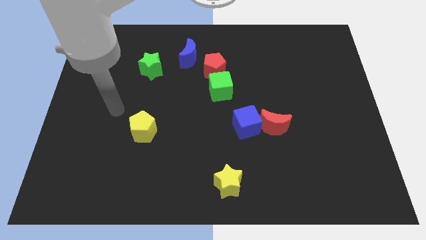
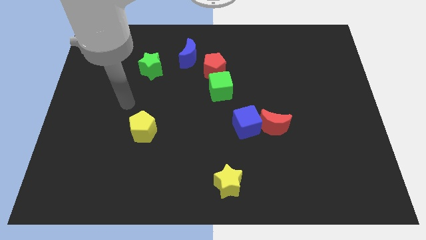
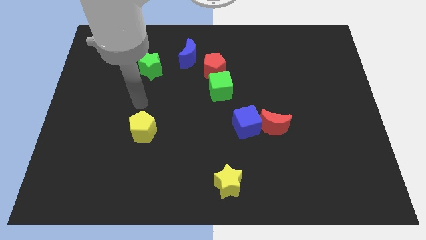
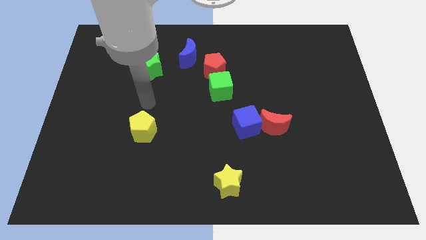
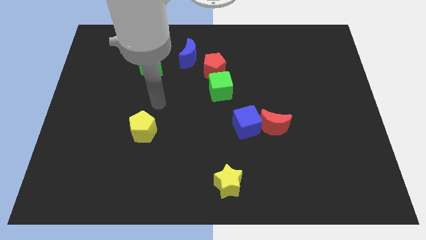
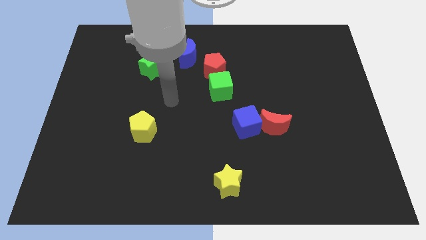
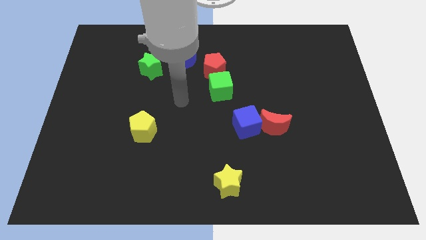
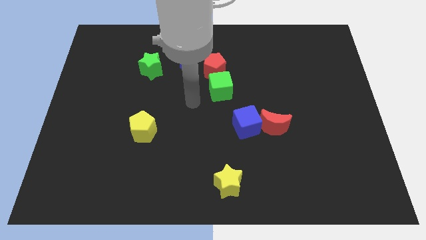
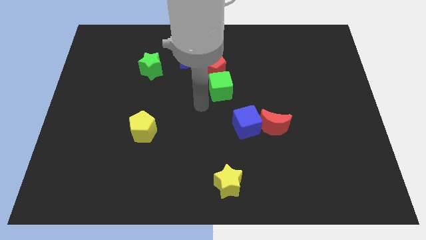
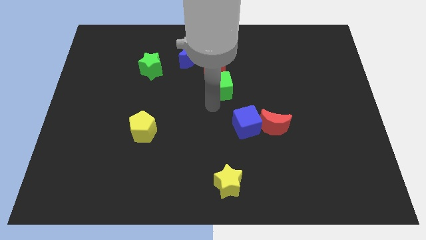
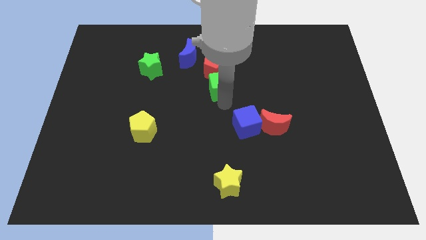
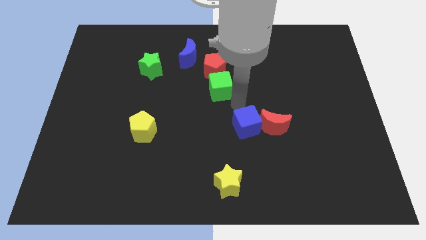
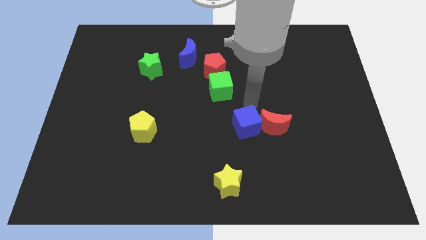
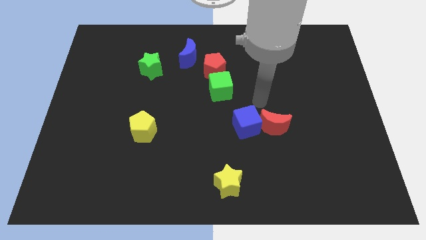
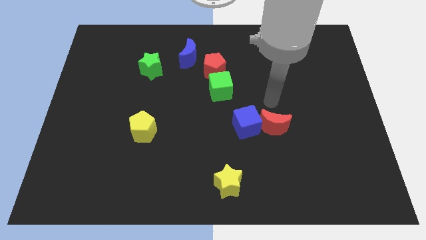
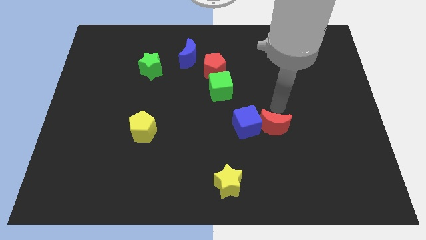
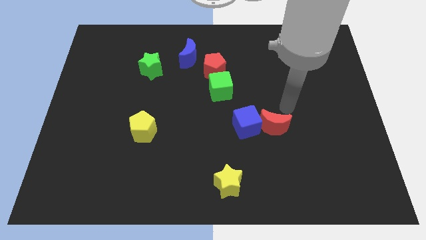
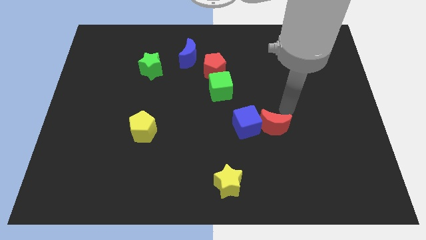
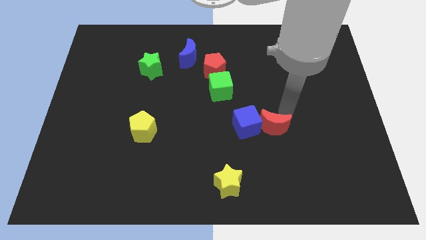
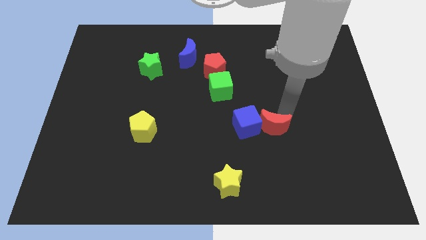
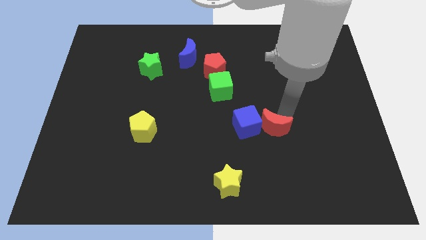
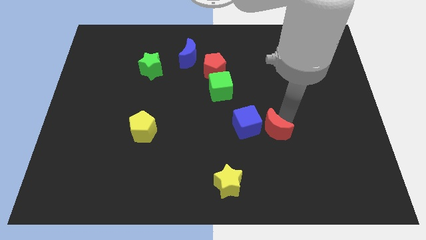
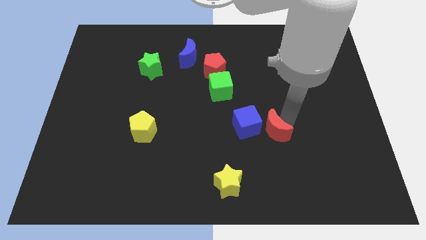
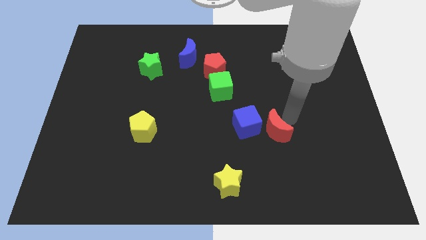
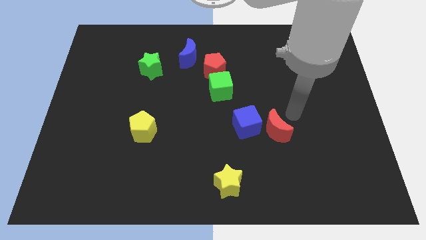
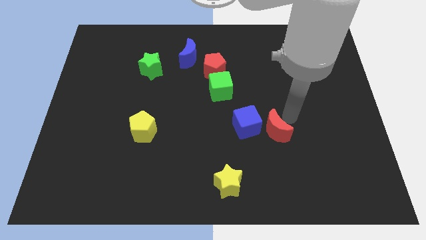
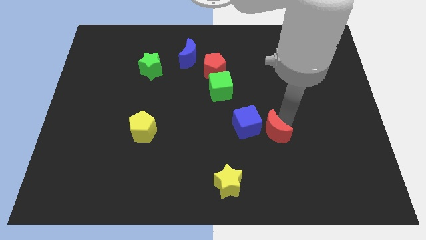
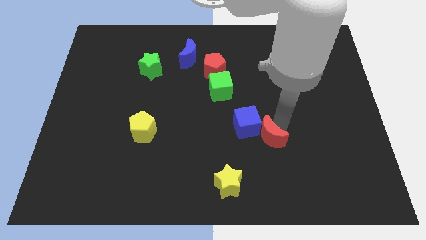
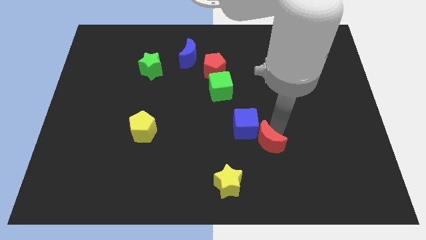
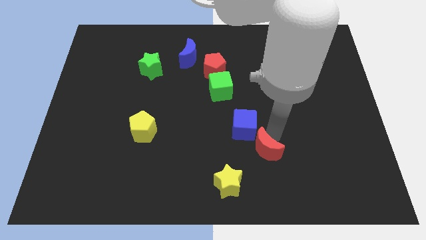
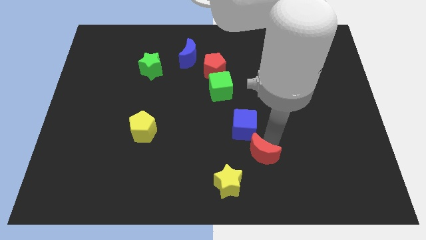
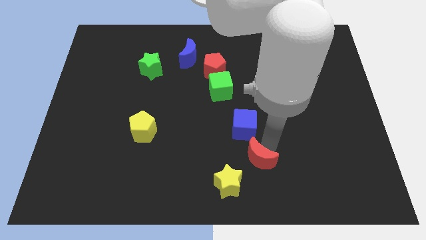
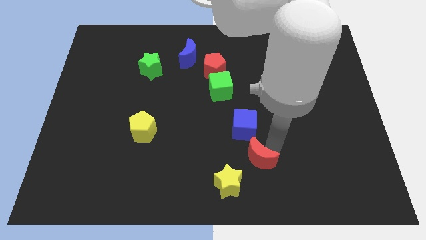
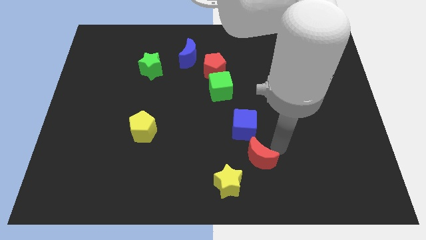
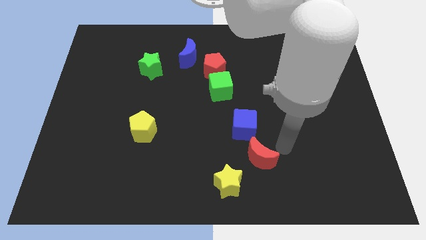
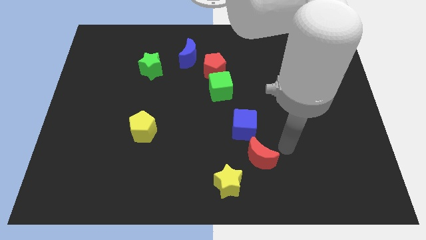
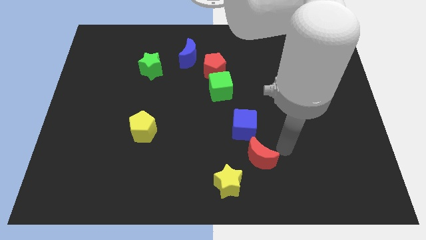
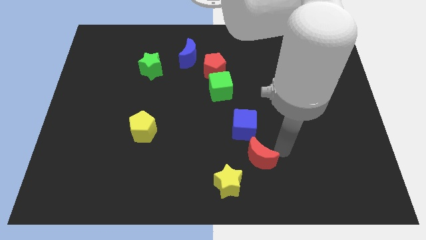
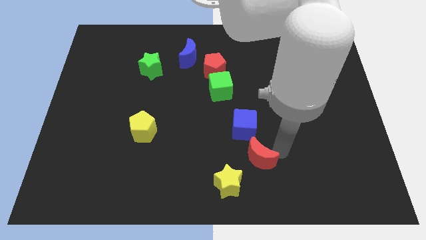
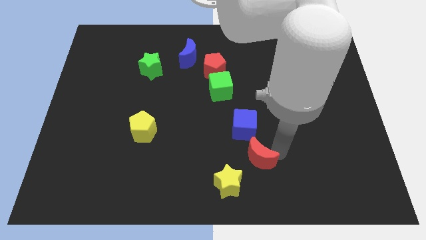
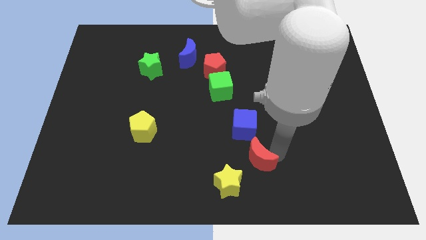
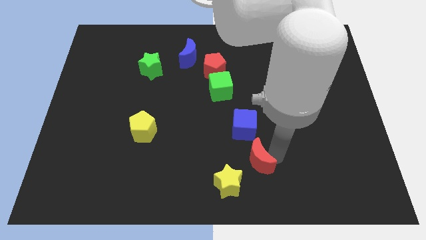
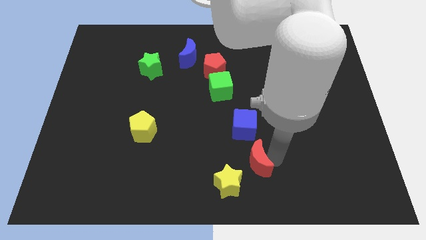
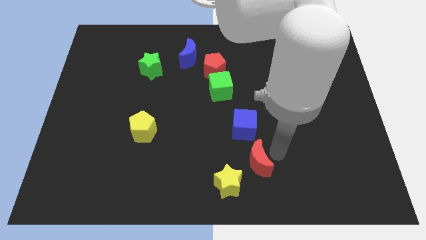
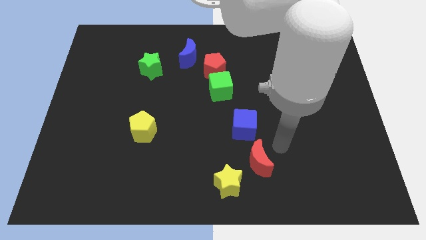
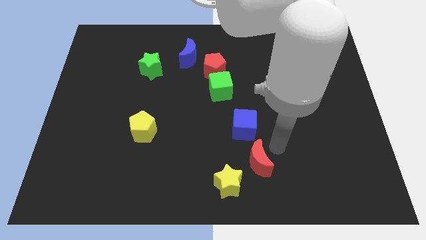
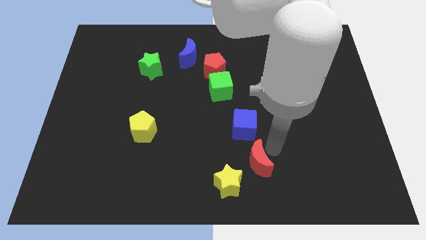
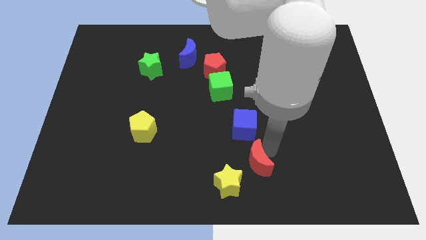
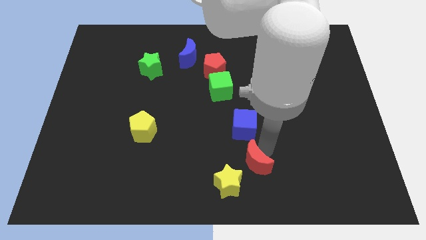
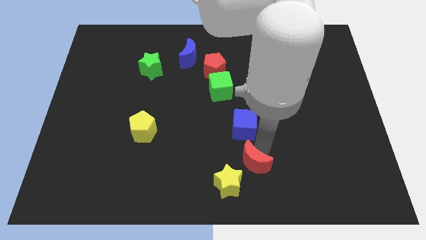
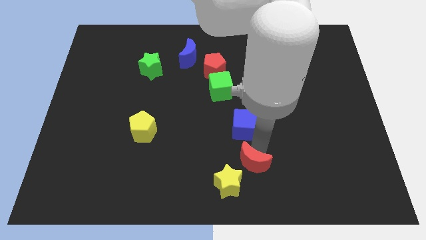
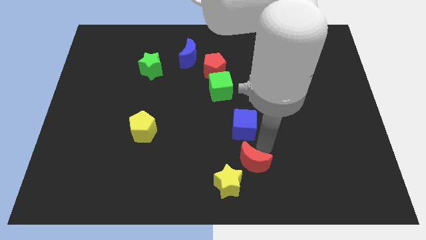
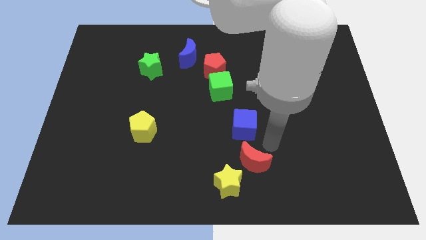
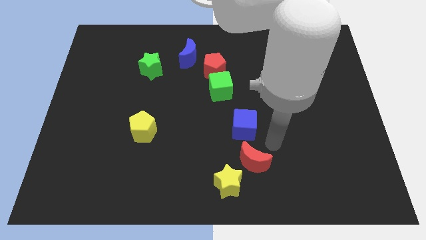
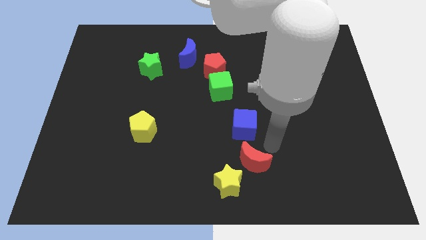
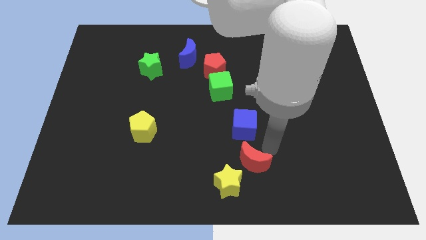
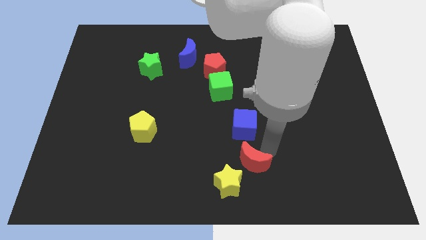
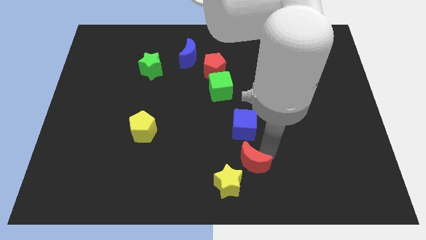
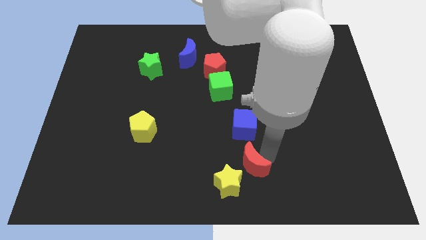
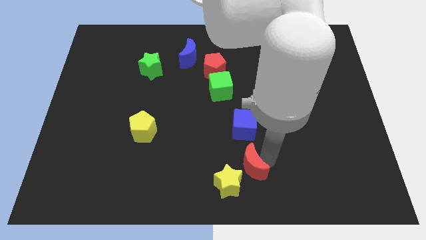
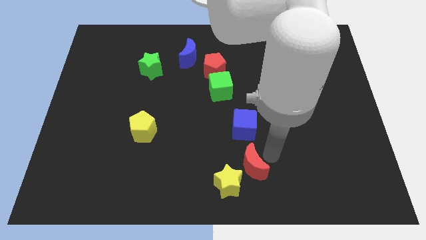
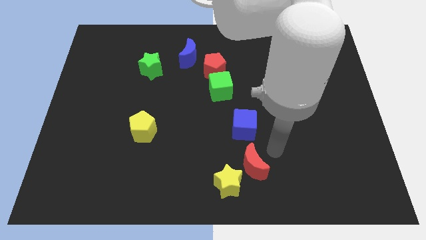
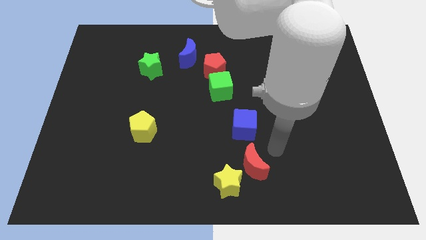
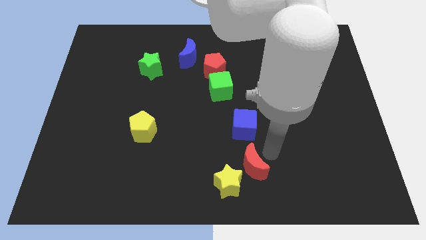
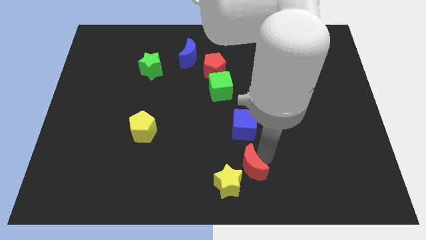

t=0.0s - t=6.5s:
put the red moon to the yellow star
